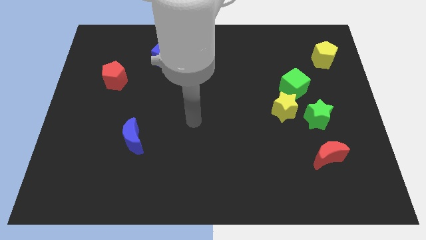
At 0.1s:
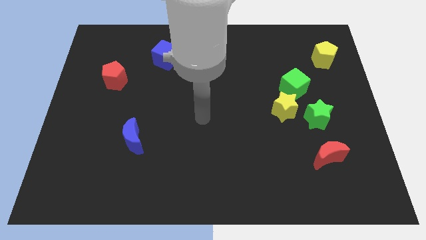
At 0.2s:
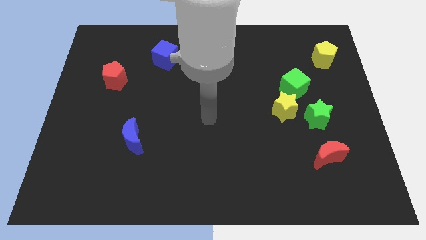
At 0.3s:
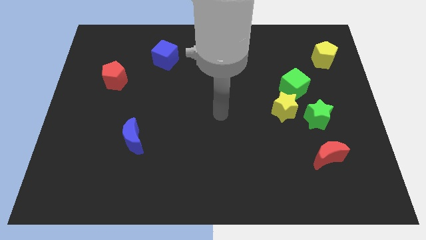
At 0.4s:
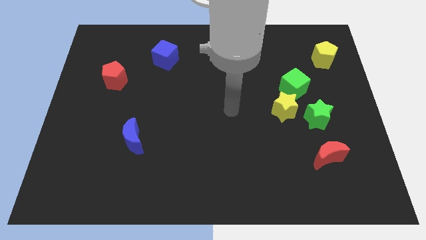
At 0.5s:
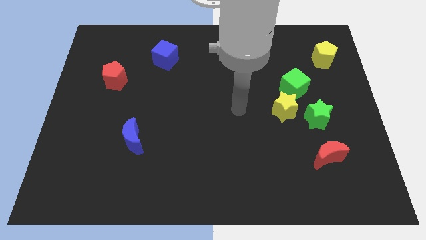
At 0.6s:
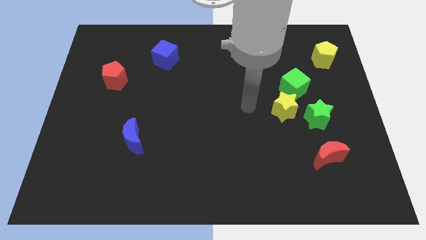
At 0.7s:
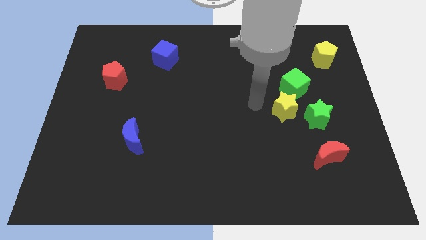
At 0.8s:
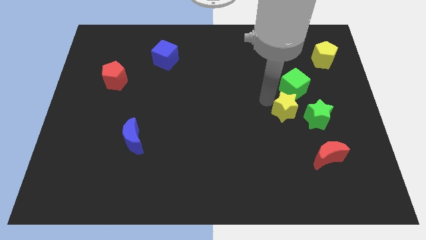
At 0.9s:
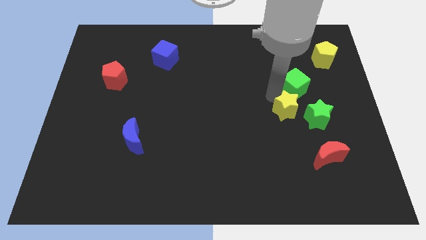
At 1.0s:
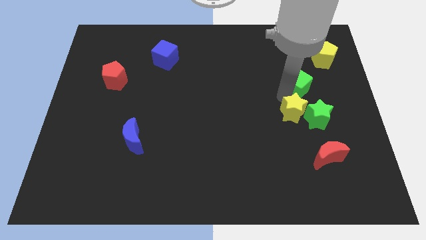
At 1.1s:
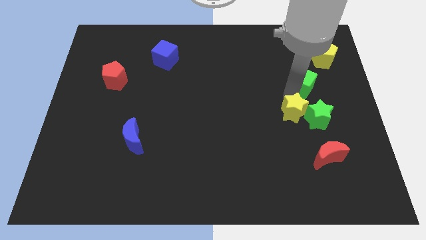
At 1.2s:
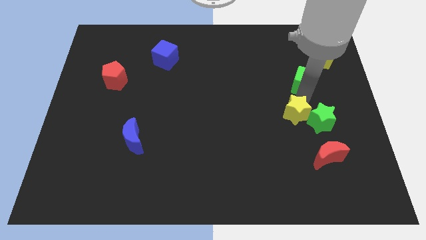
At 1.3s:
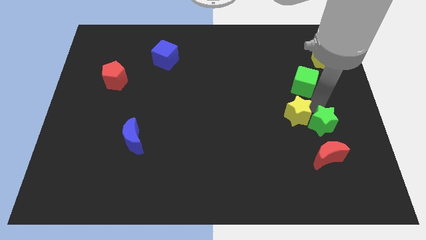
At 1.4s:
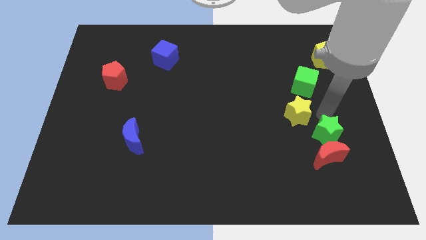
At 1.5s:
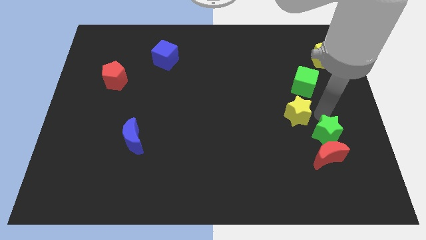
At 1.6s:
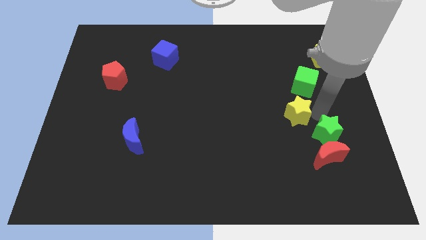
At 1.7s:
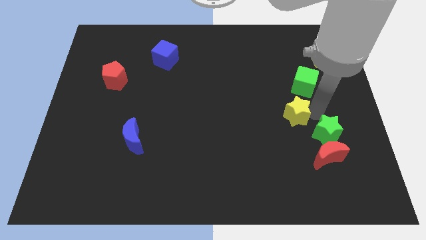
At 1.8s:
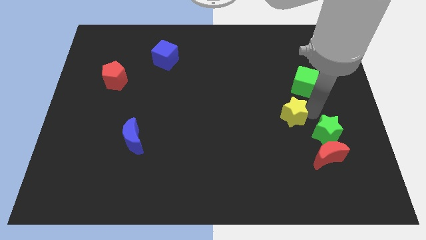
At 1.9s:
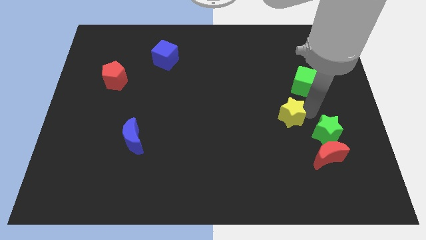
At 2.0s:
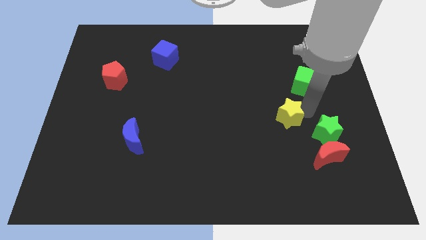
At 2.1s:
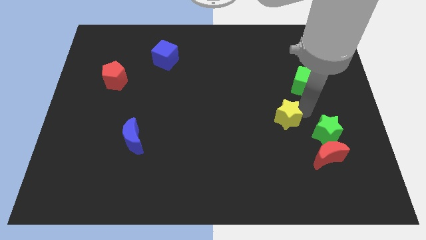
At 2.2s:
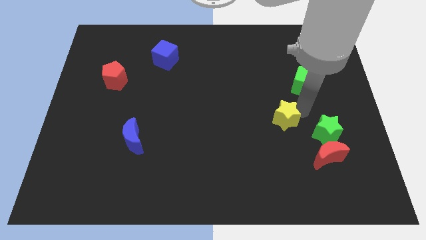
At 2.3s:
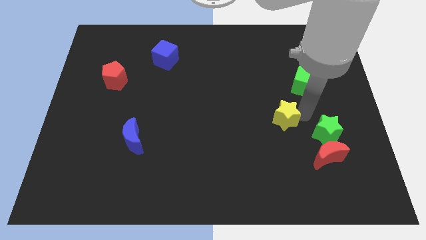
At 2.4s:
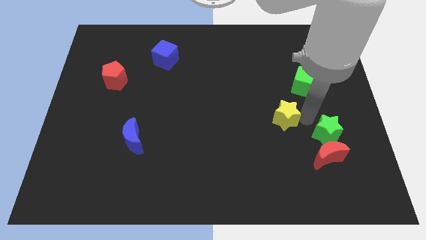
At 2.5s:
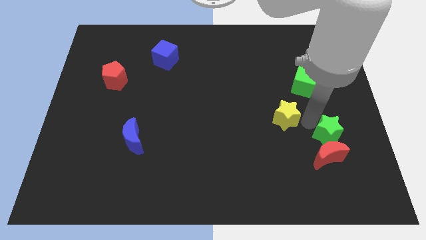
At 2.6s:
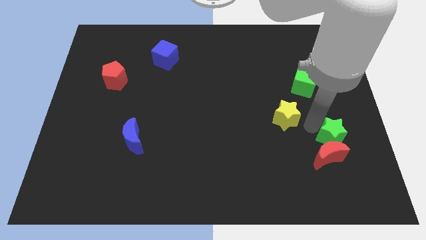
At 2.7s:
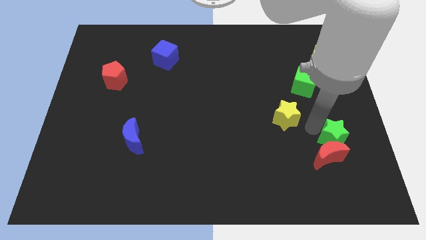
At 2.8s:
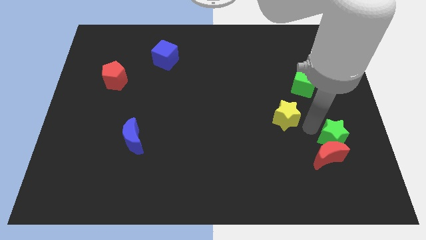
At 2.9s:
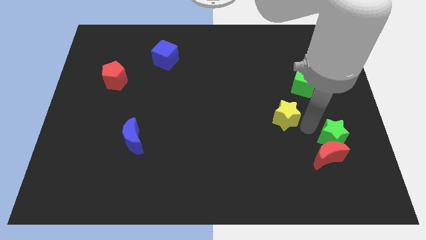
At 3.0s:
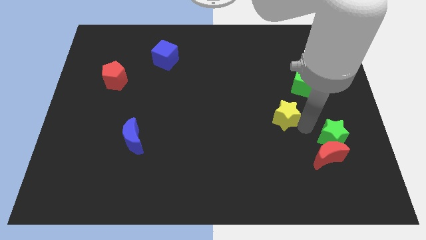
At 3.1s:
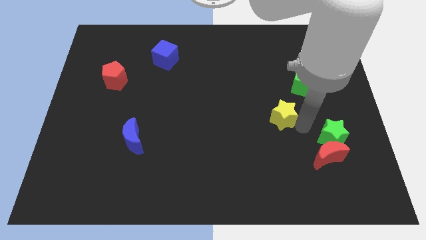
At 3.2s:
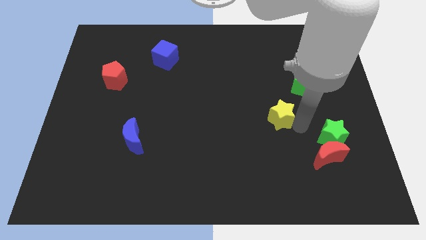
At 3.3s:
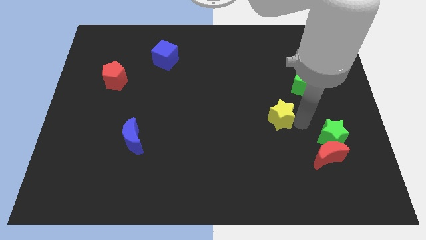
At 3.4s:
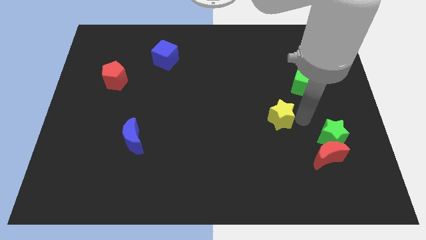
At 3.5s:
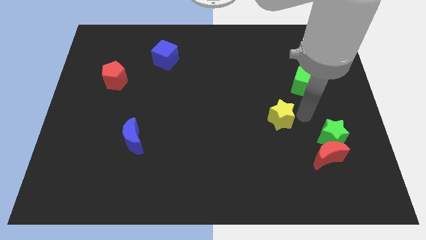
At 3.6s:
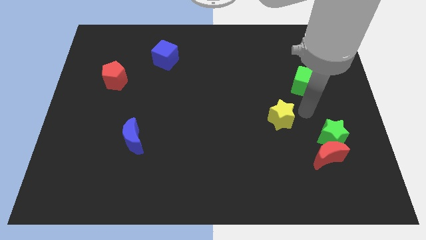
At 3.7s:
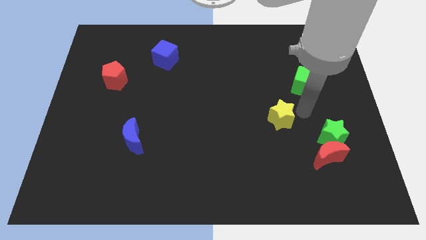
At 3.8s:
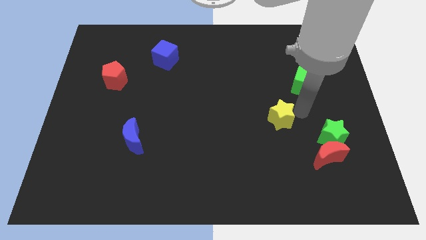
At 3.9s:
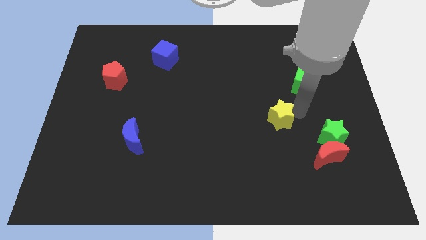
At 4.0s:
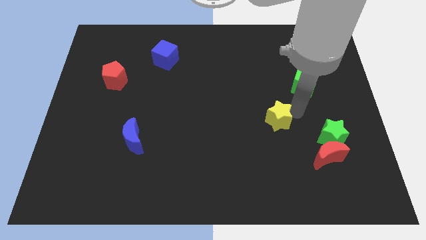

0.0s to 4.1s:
move the yellow star away from the green star and green cube

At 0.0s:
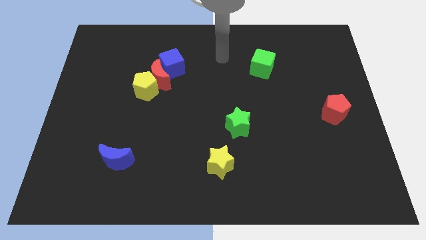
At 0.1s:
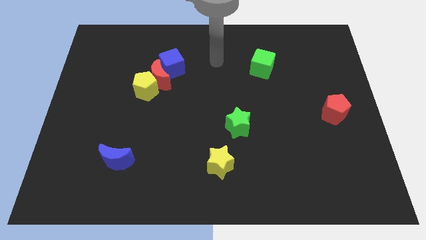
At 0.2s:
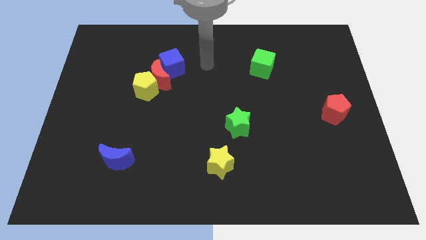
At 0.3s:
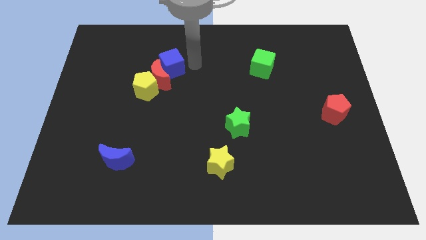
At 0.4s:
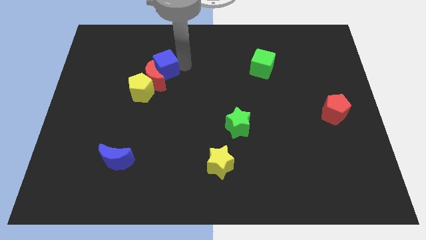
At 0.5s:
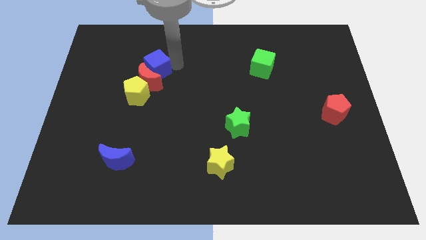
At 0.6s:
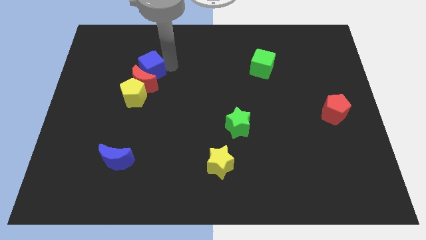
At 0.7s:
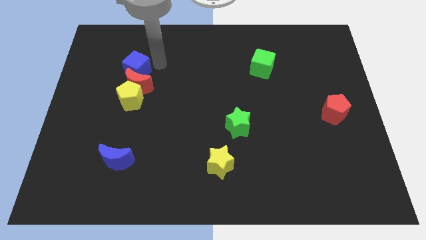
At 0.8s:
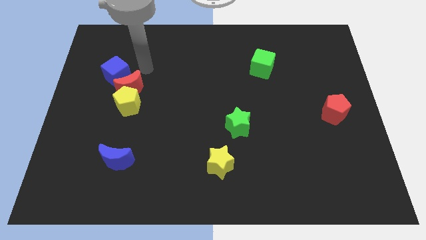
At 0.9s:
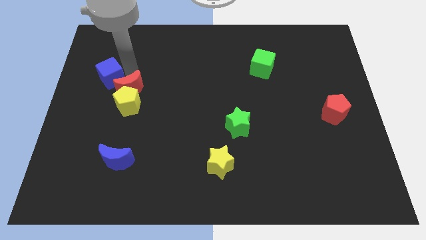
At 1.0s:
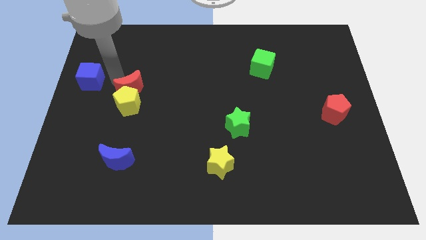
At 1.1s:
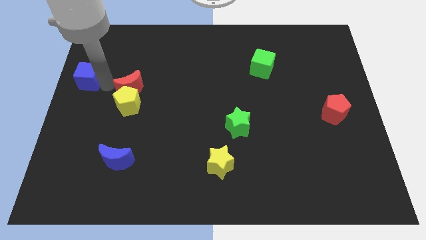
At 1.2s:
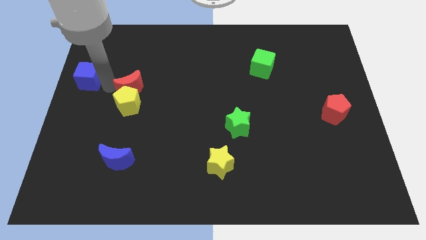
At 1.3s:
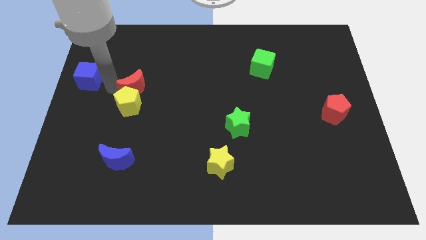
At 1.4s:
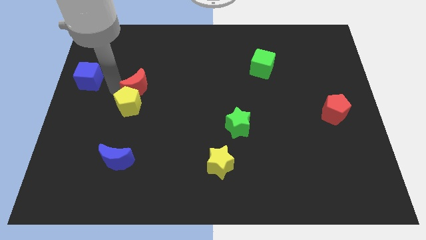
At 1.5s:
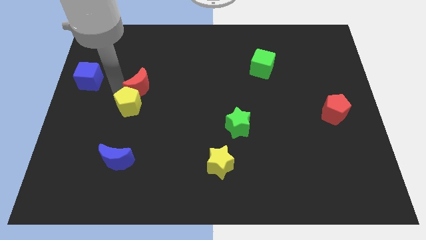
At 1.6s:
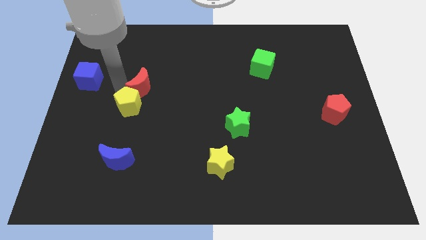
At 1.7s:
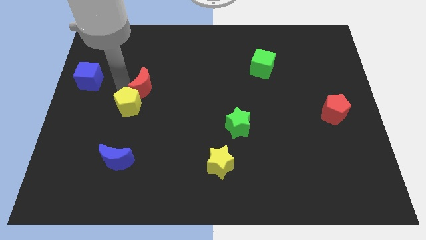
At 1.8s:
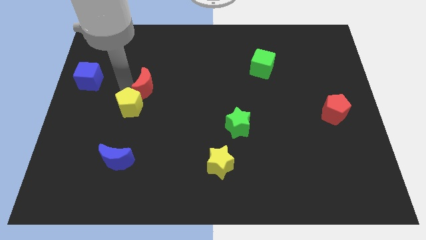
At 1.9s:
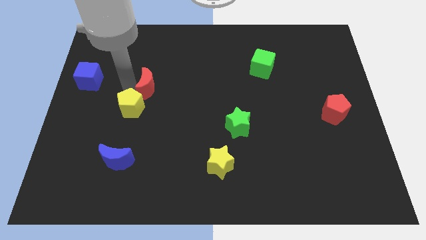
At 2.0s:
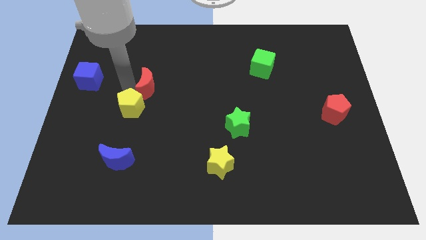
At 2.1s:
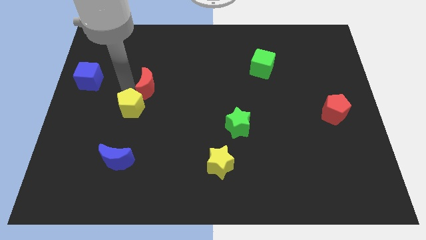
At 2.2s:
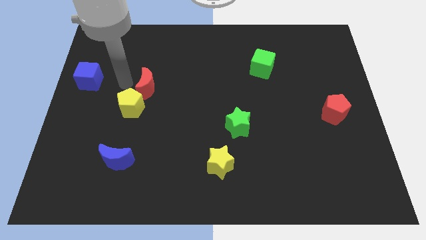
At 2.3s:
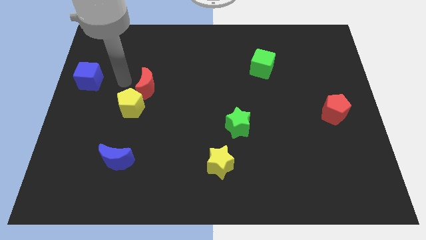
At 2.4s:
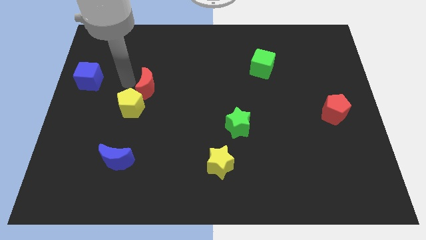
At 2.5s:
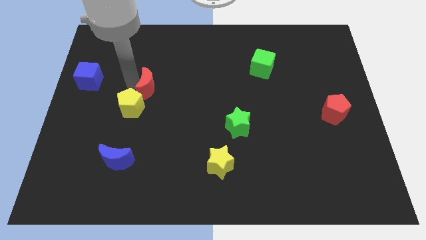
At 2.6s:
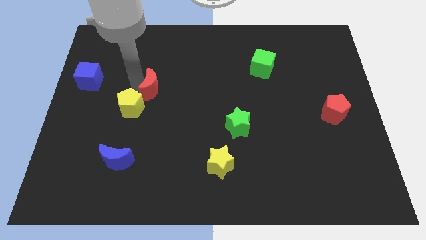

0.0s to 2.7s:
separate the red moon from the yellow pentagon and blue cube

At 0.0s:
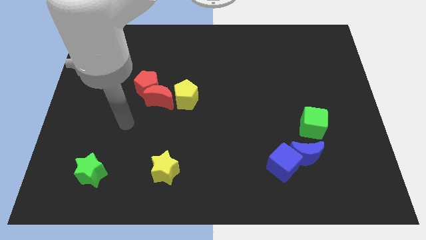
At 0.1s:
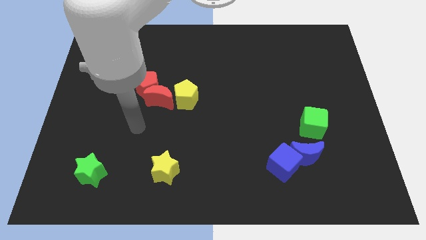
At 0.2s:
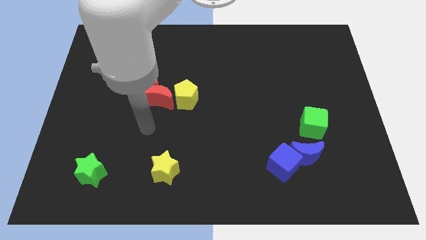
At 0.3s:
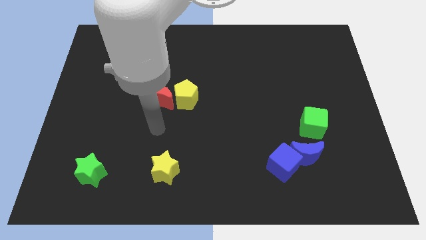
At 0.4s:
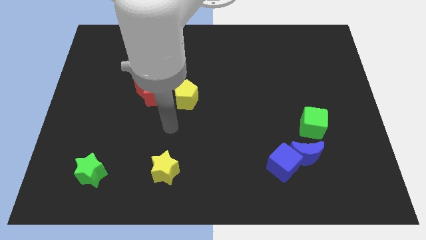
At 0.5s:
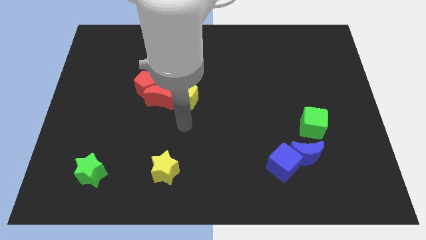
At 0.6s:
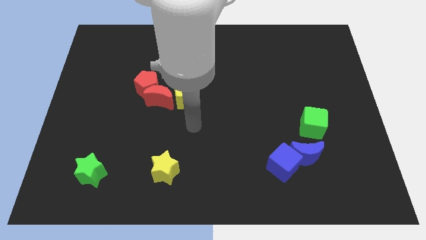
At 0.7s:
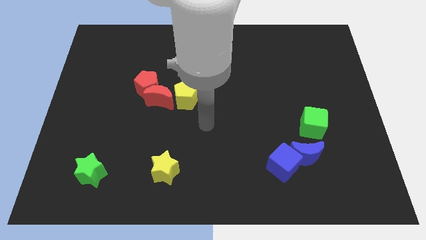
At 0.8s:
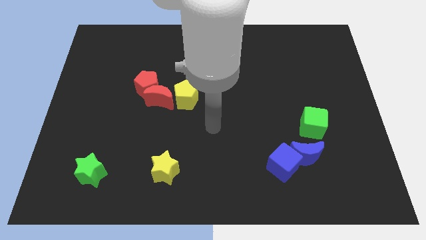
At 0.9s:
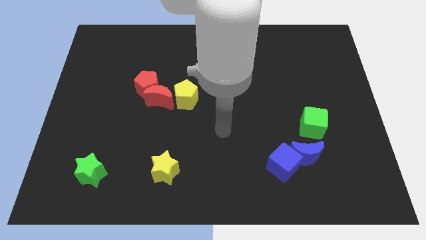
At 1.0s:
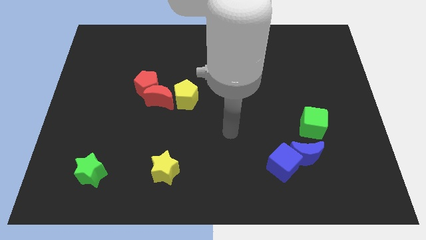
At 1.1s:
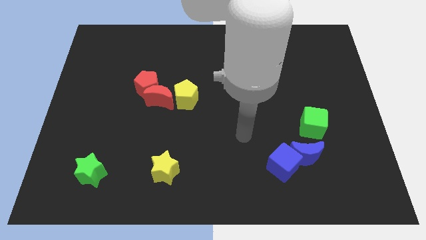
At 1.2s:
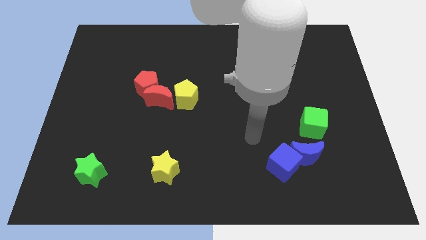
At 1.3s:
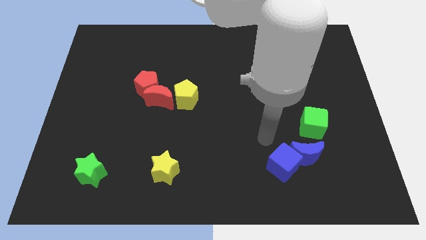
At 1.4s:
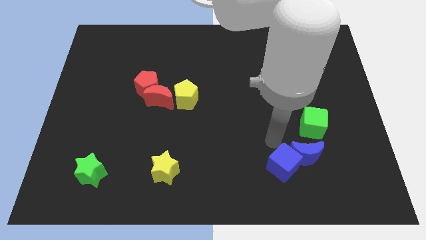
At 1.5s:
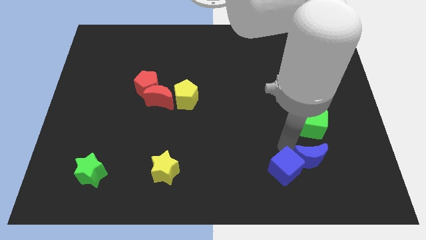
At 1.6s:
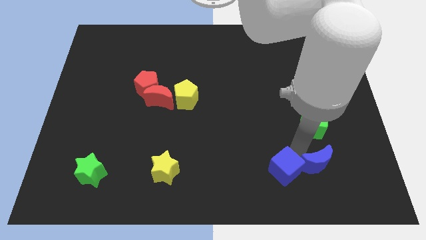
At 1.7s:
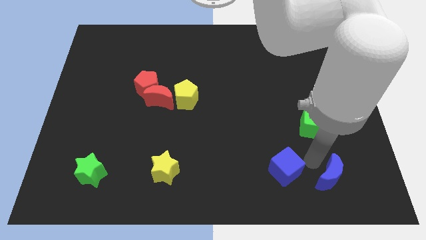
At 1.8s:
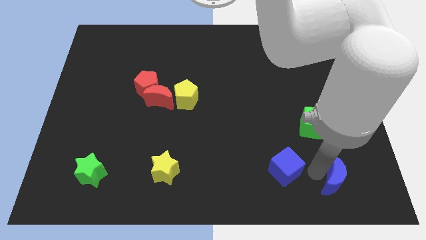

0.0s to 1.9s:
separate the blue cube from the blue moon

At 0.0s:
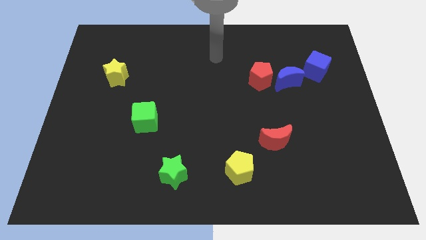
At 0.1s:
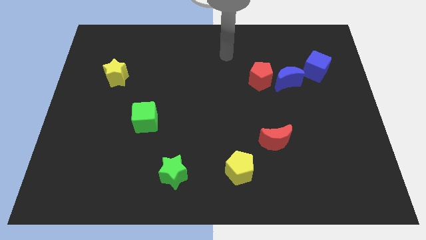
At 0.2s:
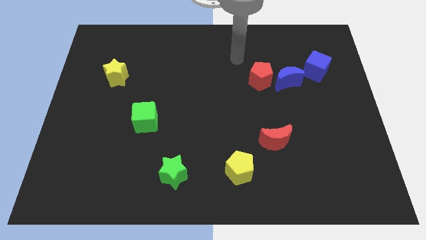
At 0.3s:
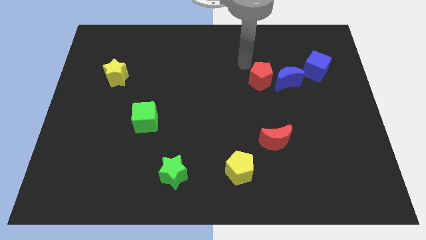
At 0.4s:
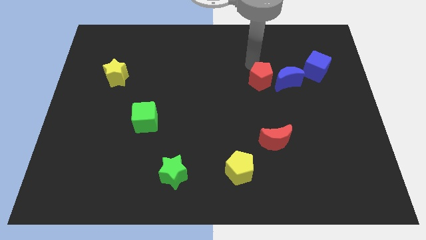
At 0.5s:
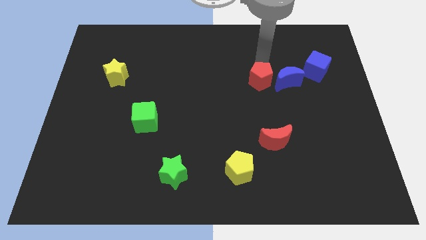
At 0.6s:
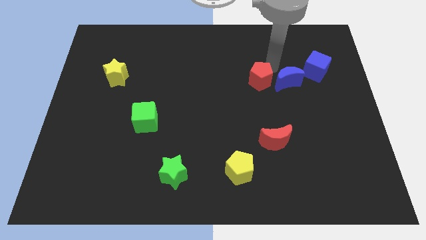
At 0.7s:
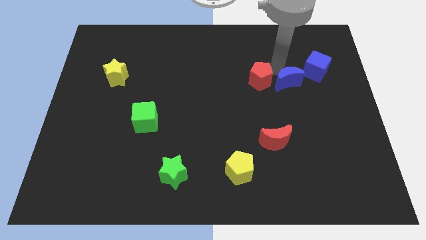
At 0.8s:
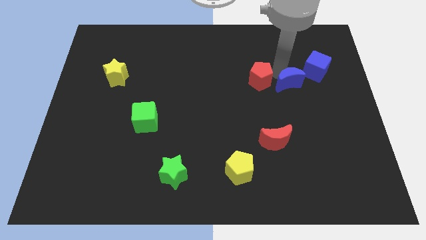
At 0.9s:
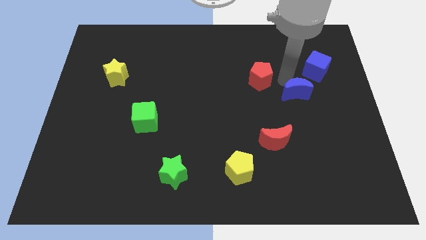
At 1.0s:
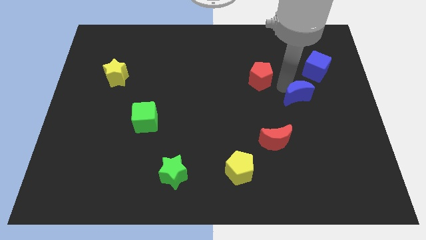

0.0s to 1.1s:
move the red pentagon away from the blue moon
